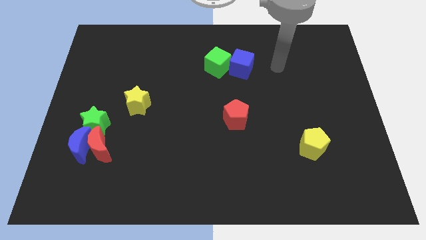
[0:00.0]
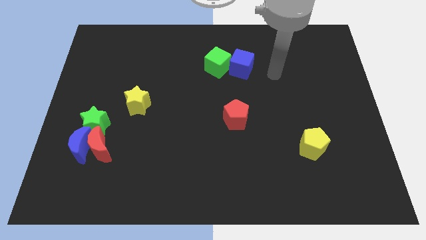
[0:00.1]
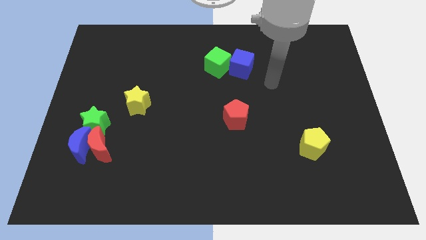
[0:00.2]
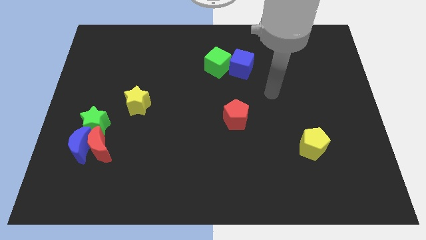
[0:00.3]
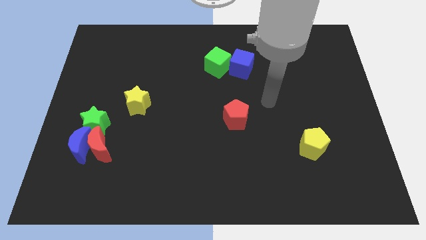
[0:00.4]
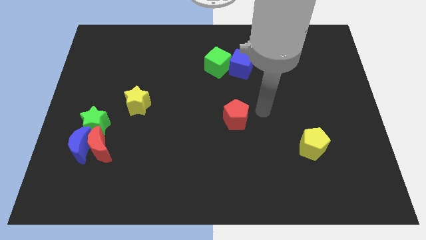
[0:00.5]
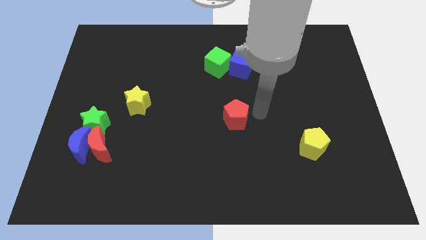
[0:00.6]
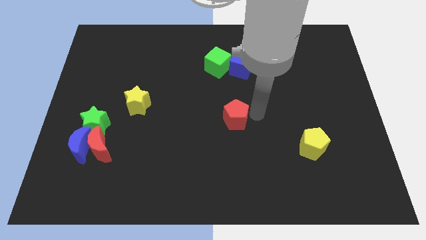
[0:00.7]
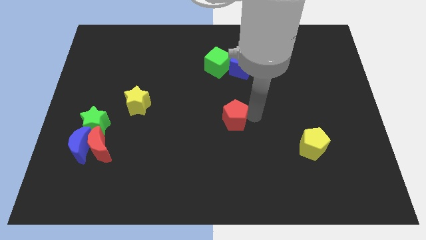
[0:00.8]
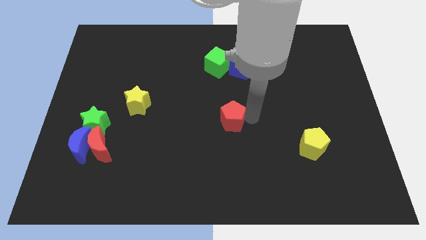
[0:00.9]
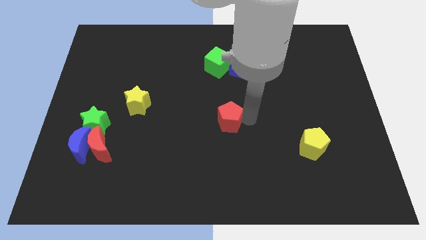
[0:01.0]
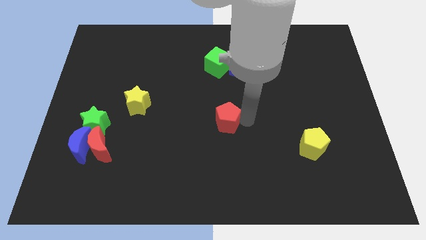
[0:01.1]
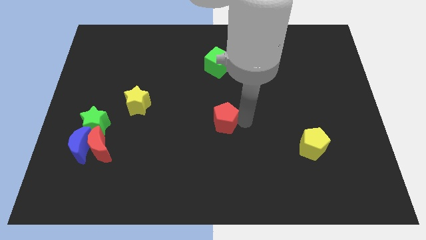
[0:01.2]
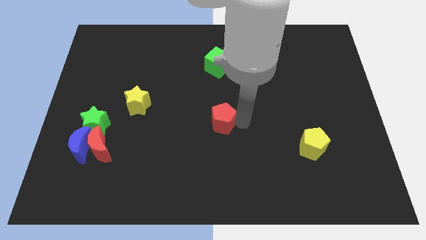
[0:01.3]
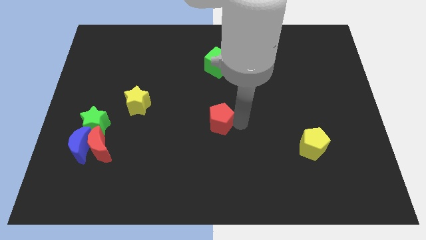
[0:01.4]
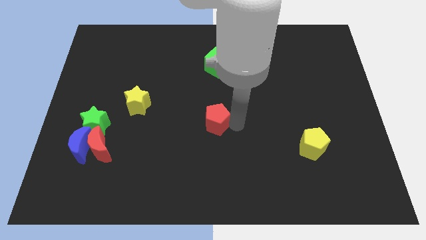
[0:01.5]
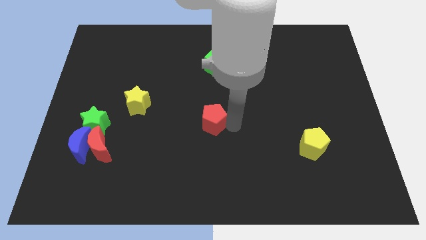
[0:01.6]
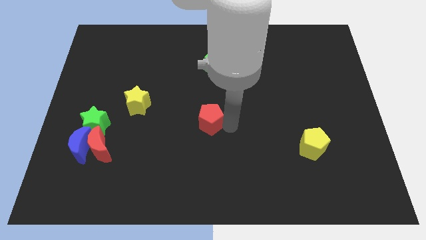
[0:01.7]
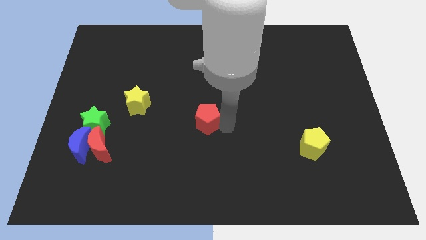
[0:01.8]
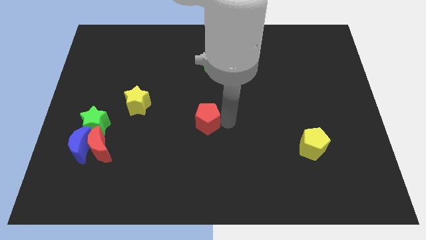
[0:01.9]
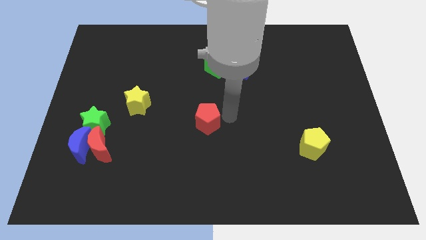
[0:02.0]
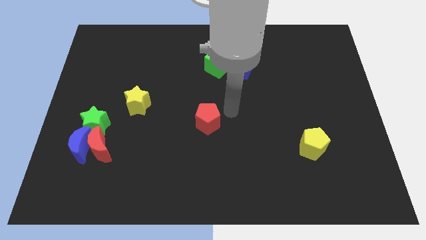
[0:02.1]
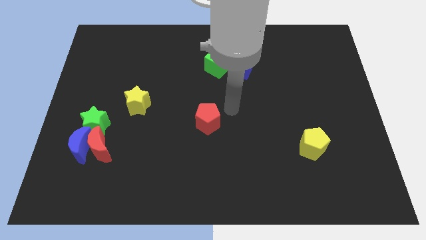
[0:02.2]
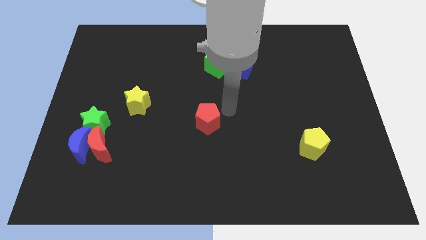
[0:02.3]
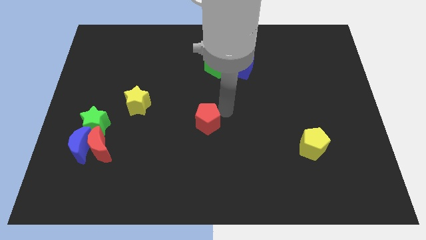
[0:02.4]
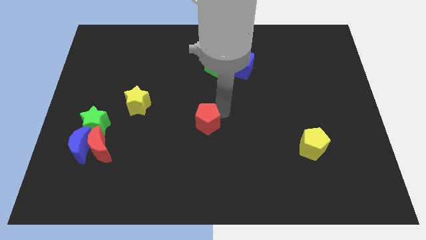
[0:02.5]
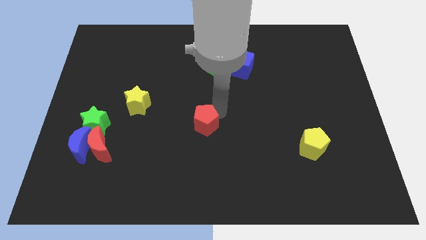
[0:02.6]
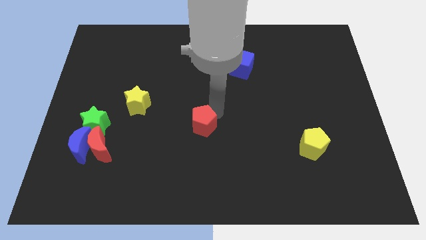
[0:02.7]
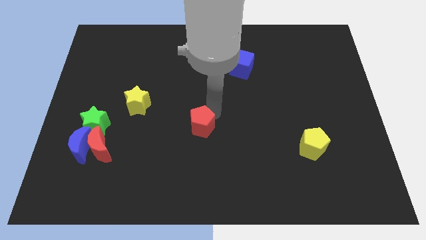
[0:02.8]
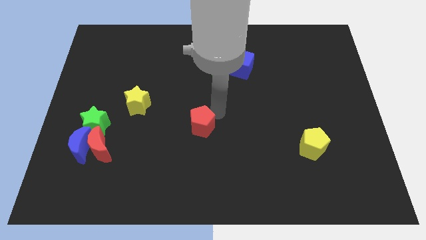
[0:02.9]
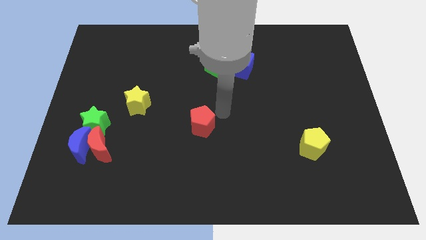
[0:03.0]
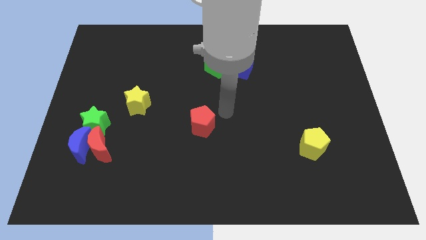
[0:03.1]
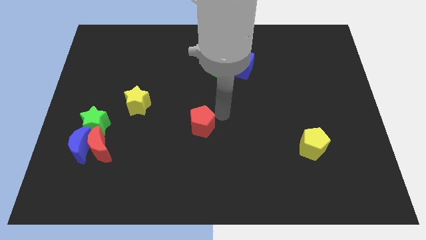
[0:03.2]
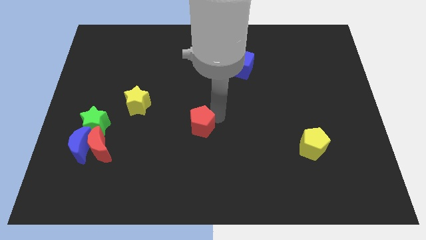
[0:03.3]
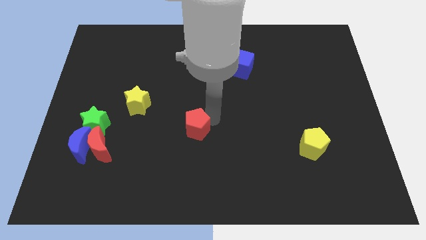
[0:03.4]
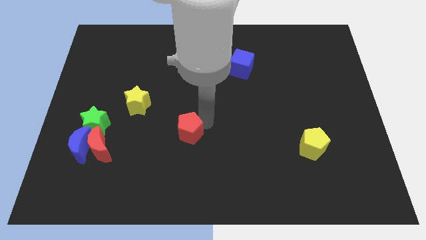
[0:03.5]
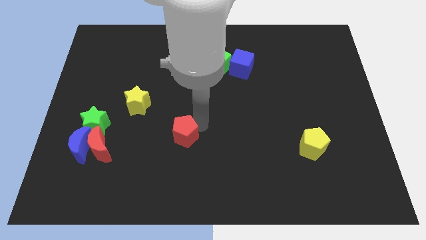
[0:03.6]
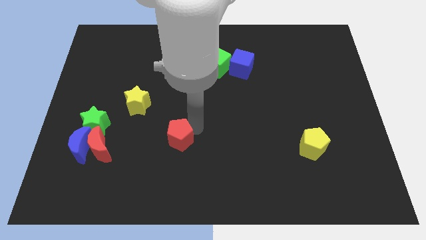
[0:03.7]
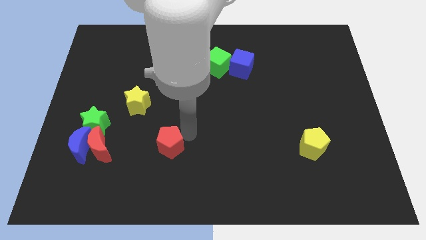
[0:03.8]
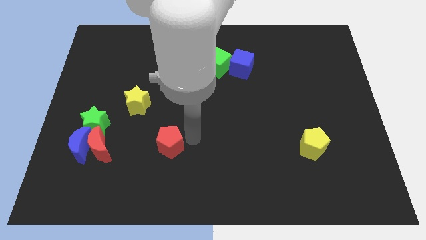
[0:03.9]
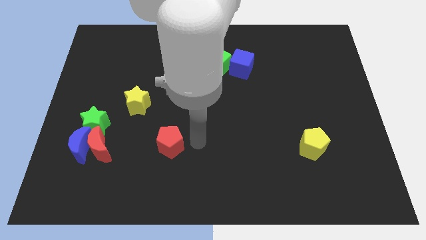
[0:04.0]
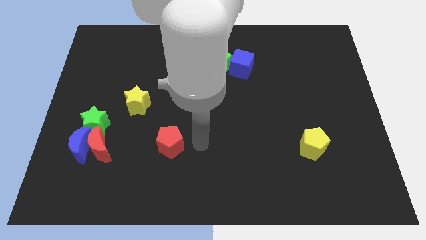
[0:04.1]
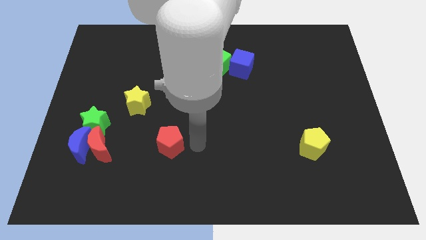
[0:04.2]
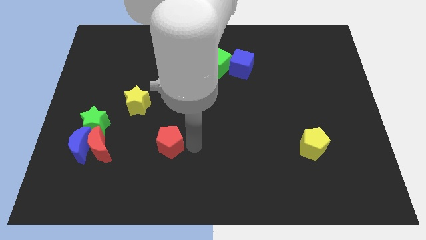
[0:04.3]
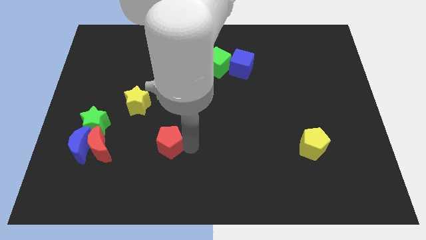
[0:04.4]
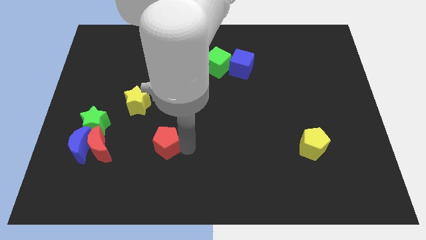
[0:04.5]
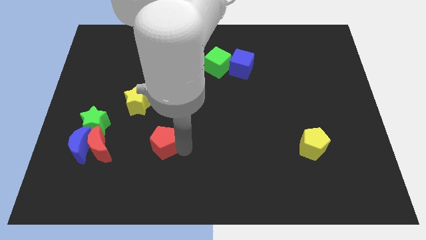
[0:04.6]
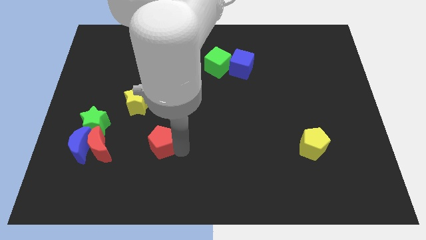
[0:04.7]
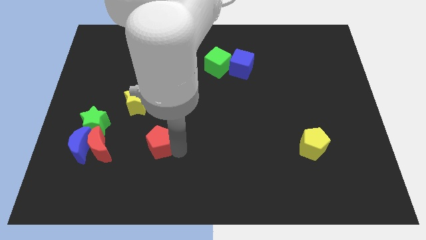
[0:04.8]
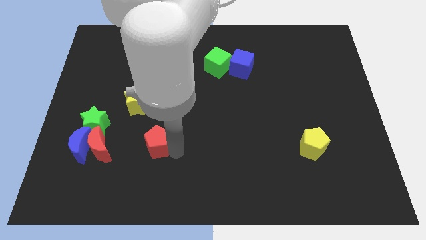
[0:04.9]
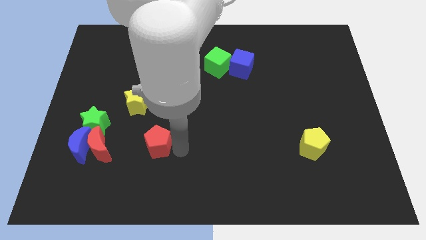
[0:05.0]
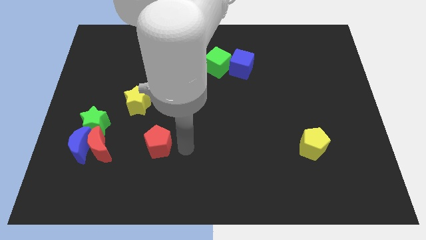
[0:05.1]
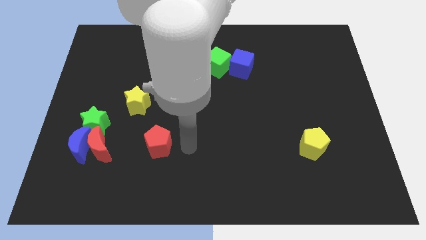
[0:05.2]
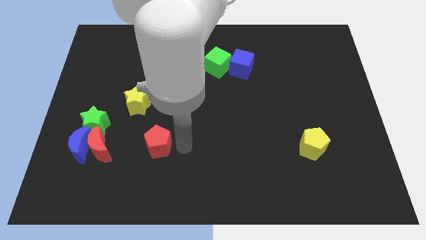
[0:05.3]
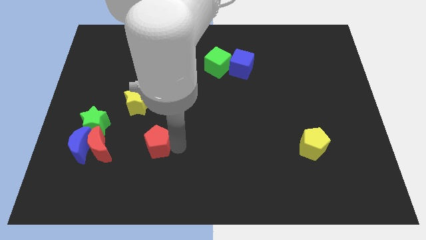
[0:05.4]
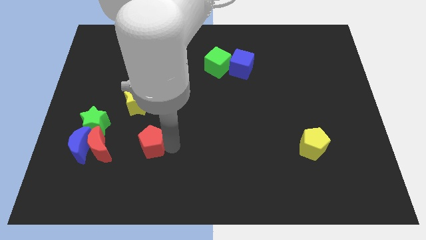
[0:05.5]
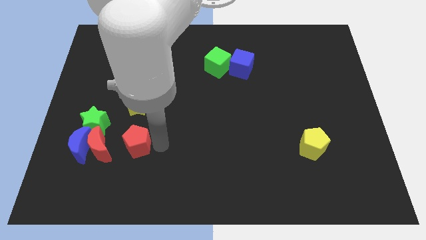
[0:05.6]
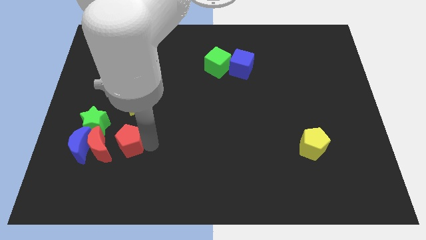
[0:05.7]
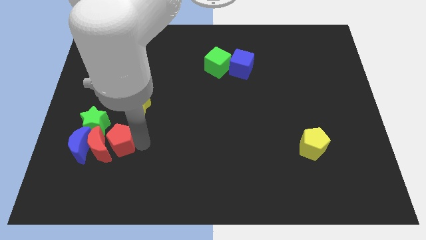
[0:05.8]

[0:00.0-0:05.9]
put the red pentagon next to the red moon

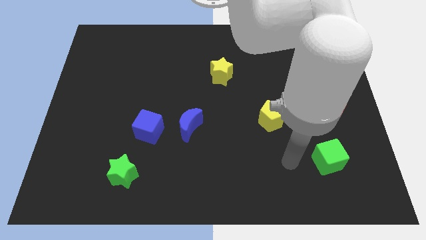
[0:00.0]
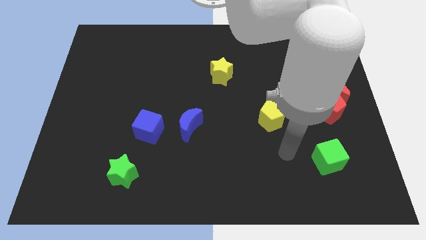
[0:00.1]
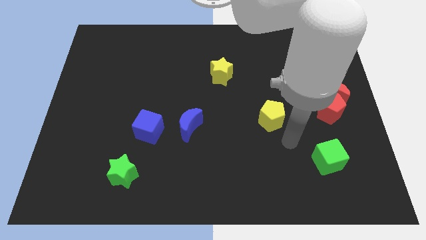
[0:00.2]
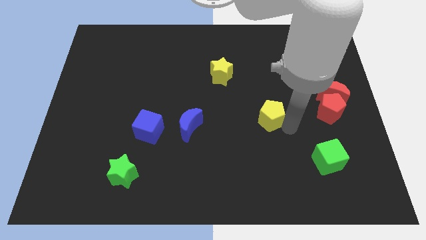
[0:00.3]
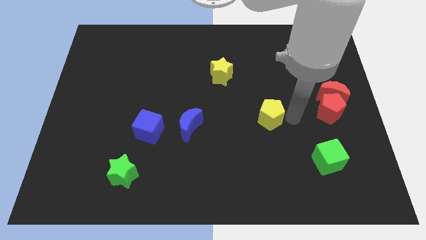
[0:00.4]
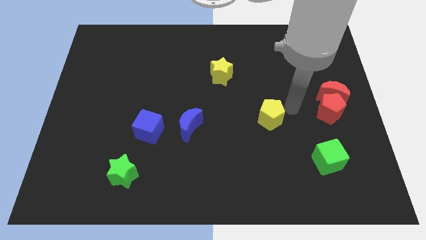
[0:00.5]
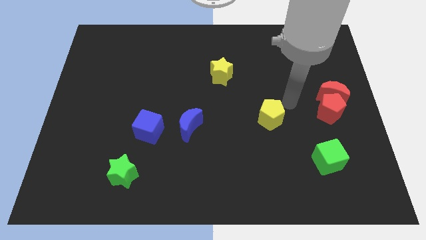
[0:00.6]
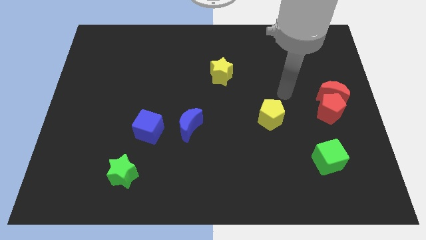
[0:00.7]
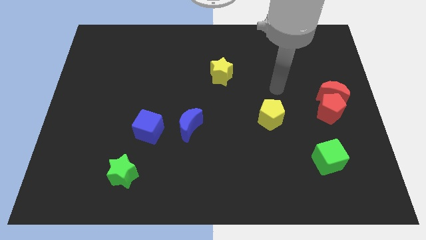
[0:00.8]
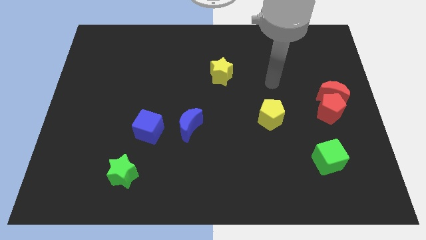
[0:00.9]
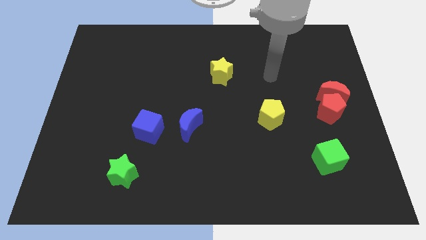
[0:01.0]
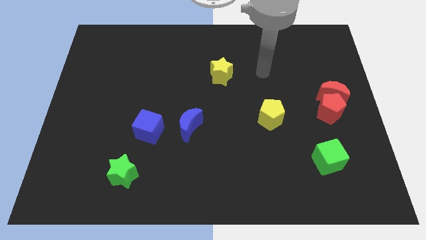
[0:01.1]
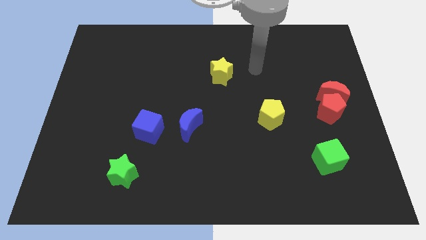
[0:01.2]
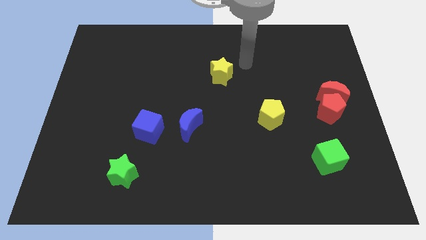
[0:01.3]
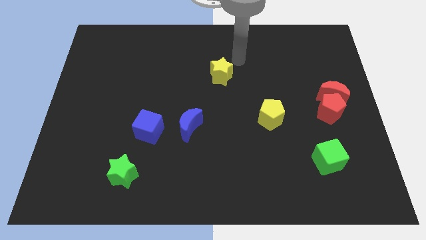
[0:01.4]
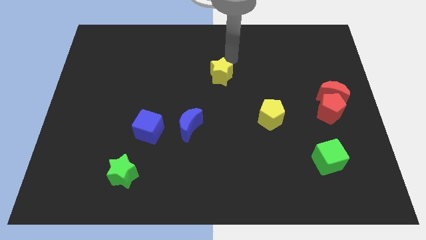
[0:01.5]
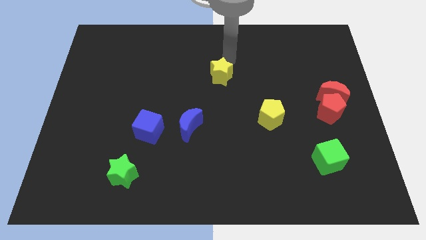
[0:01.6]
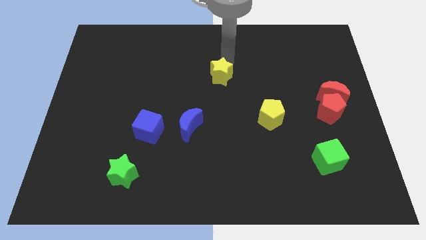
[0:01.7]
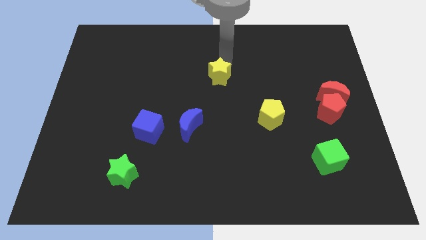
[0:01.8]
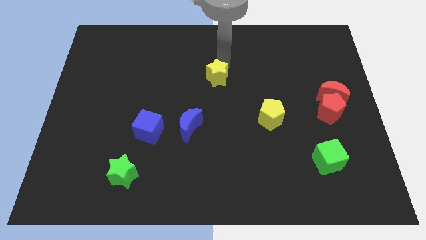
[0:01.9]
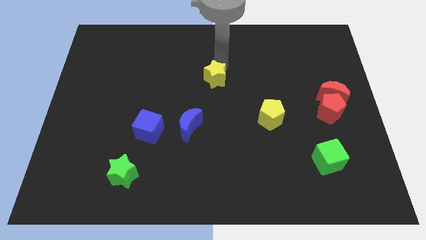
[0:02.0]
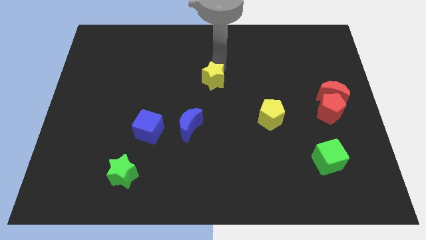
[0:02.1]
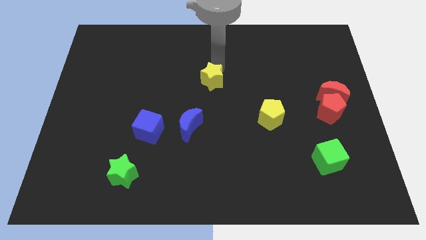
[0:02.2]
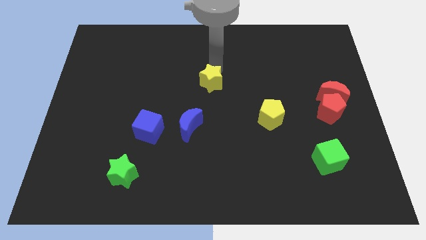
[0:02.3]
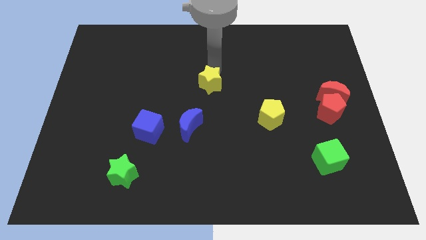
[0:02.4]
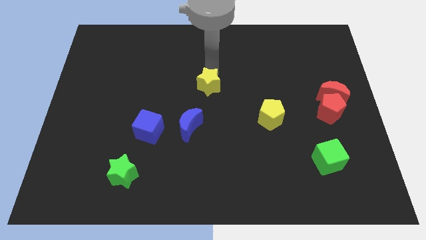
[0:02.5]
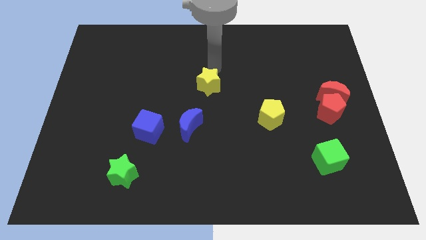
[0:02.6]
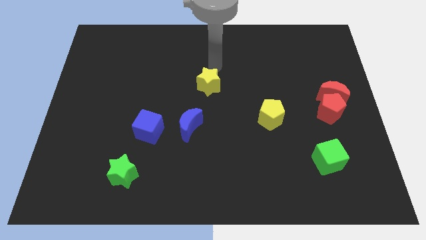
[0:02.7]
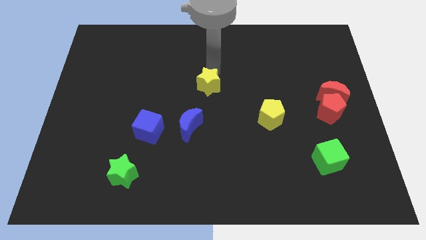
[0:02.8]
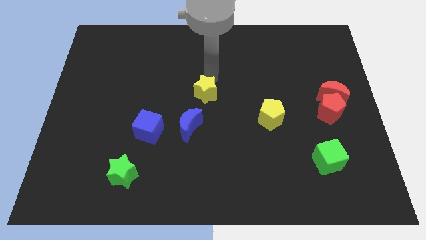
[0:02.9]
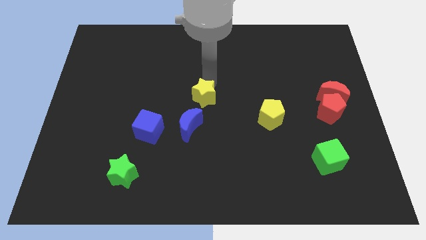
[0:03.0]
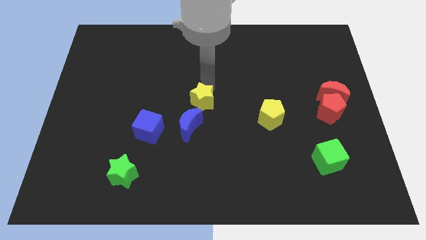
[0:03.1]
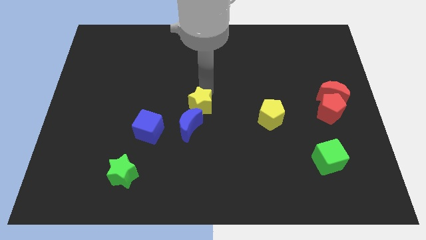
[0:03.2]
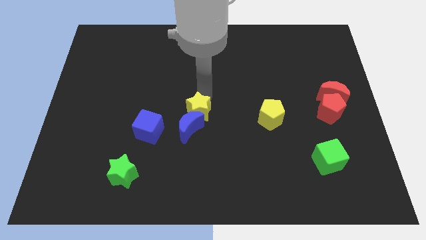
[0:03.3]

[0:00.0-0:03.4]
move the yellow star to the blue moon
